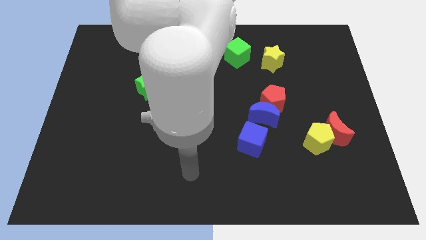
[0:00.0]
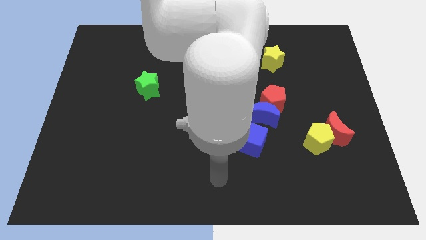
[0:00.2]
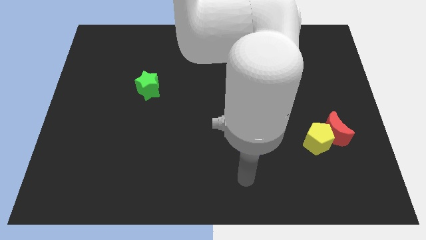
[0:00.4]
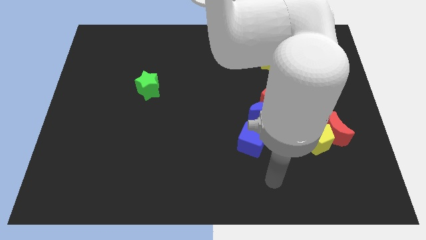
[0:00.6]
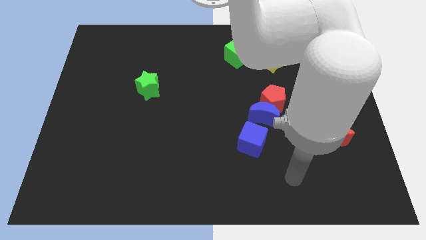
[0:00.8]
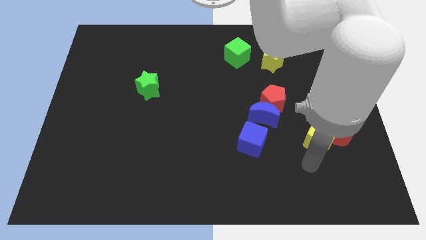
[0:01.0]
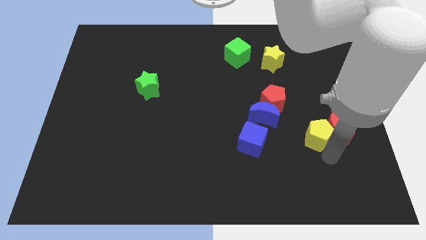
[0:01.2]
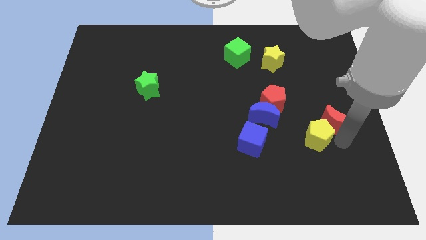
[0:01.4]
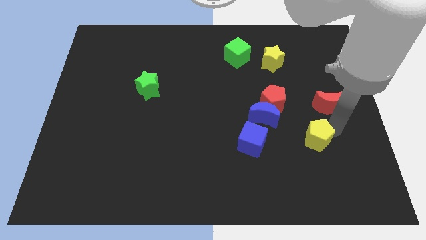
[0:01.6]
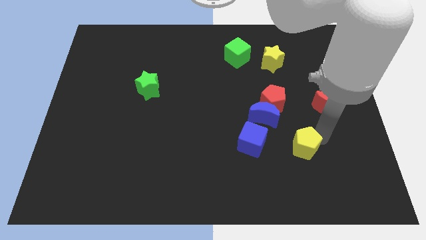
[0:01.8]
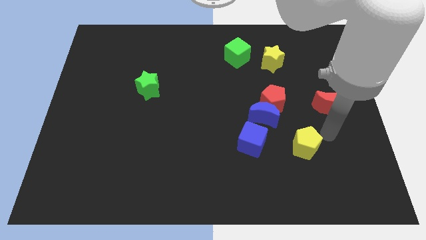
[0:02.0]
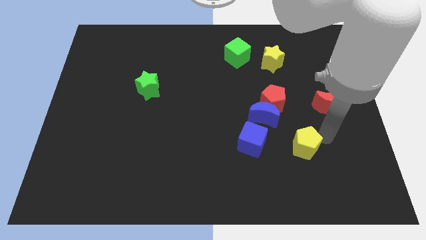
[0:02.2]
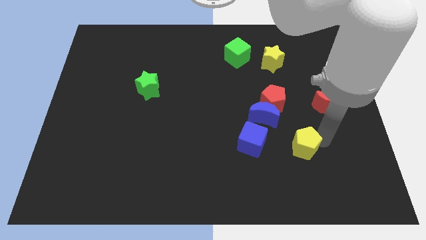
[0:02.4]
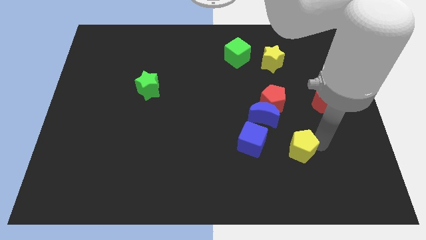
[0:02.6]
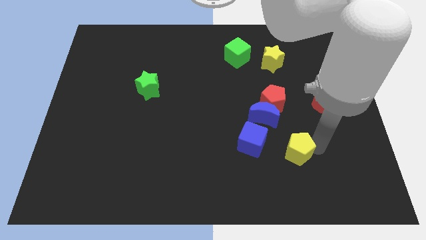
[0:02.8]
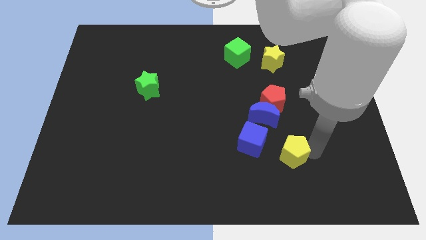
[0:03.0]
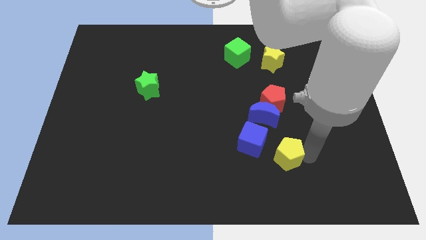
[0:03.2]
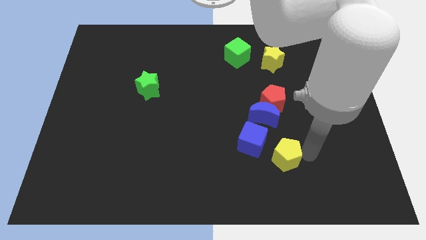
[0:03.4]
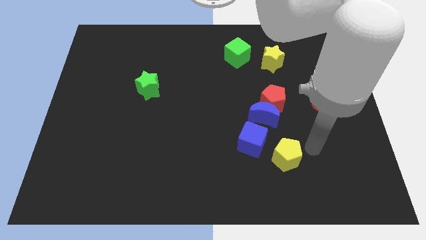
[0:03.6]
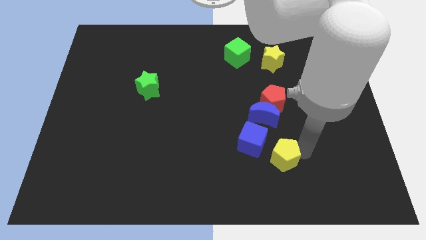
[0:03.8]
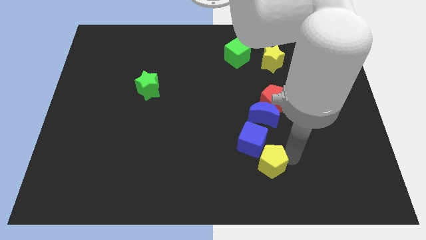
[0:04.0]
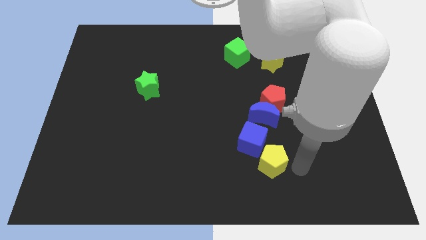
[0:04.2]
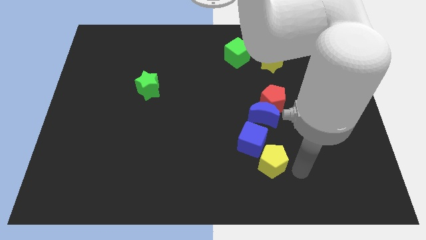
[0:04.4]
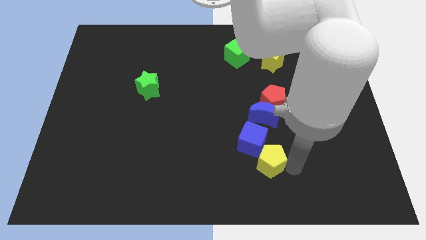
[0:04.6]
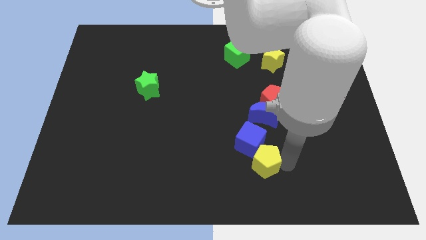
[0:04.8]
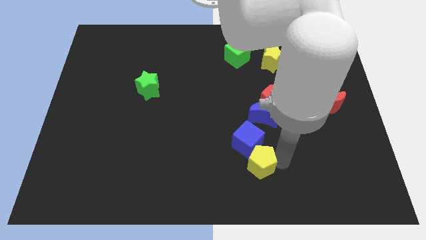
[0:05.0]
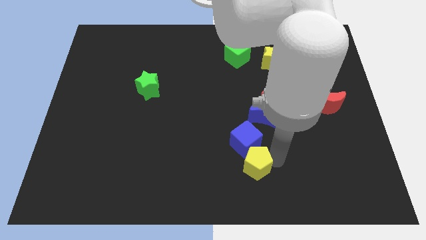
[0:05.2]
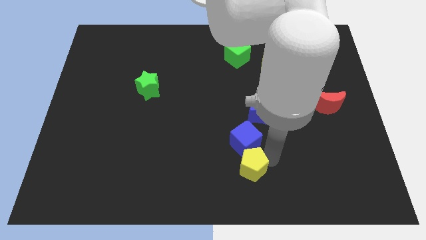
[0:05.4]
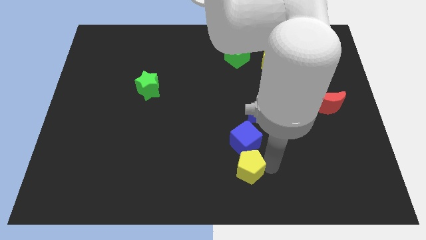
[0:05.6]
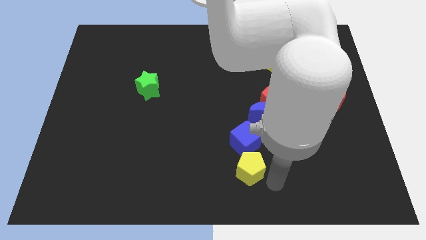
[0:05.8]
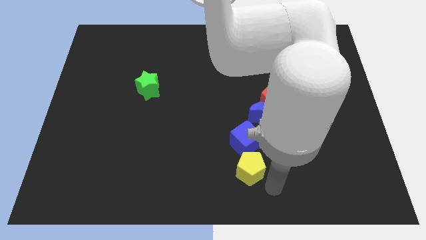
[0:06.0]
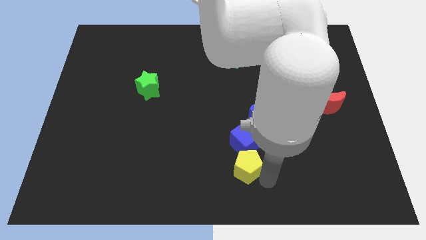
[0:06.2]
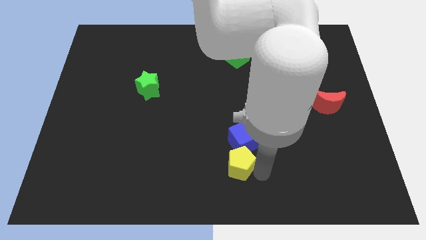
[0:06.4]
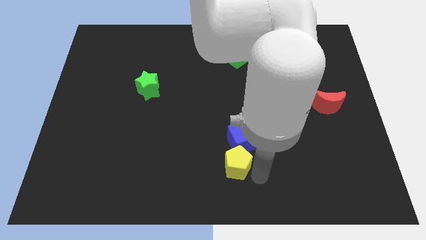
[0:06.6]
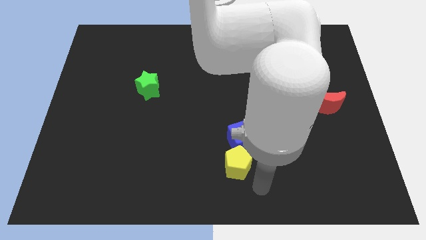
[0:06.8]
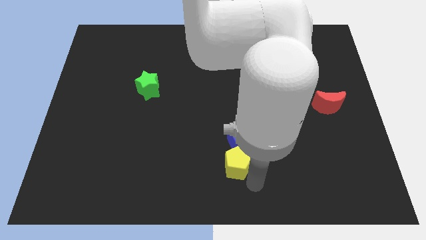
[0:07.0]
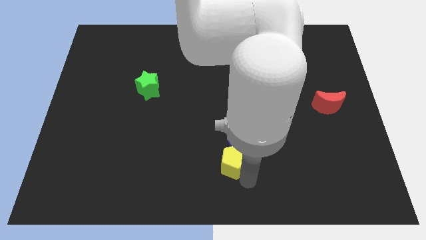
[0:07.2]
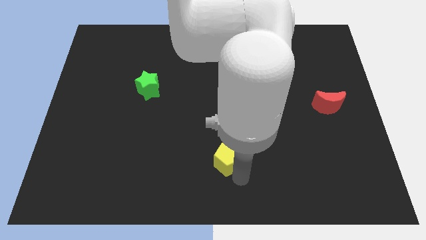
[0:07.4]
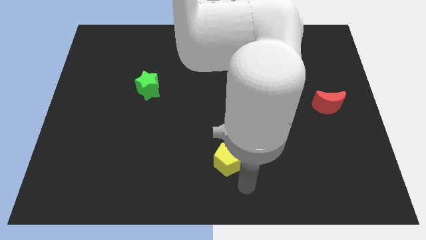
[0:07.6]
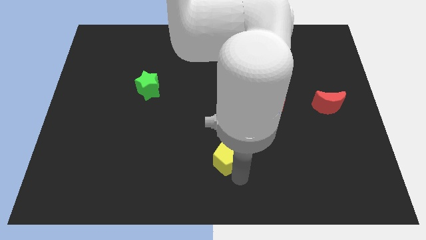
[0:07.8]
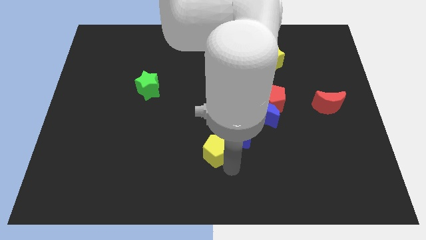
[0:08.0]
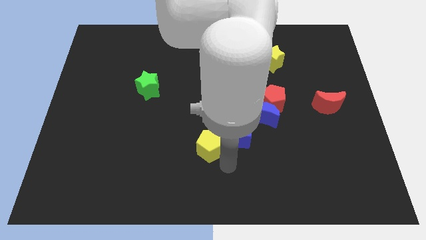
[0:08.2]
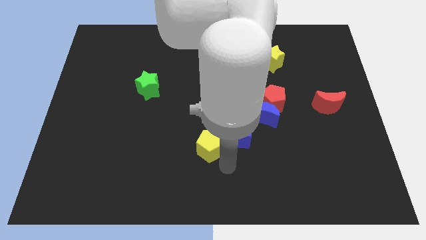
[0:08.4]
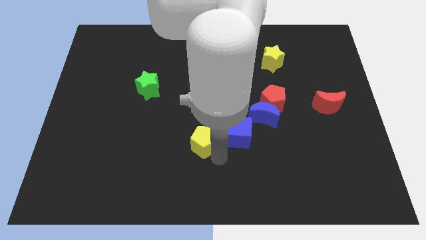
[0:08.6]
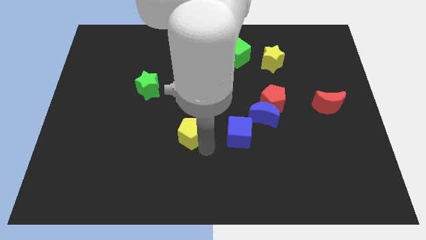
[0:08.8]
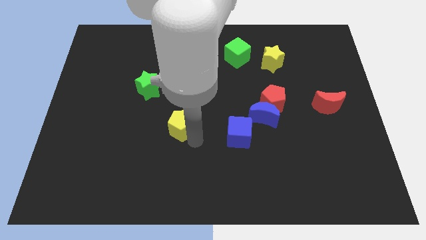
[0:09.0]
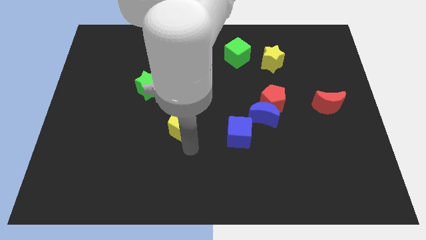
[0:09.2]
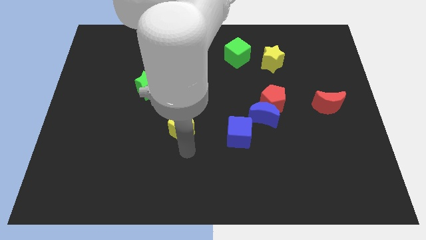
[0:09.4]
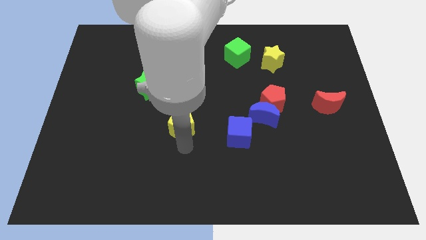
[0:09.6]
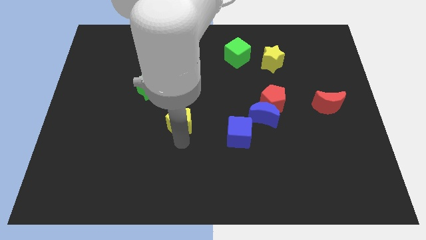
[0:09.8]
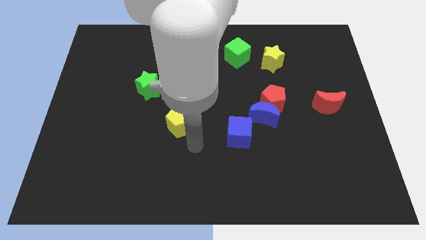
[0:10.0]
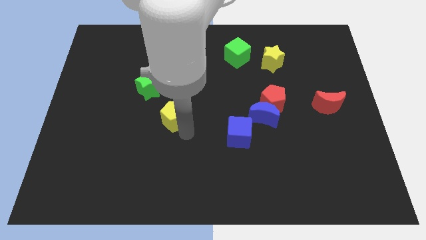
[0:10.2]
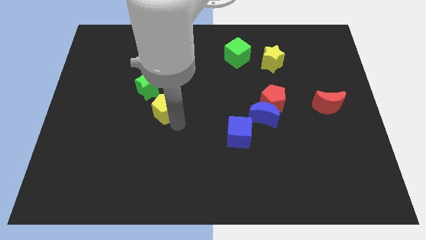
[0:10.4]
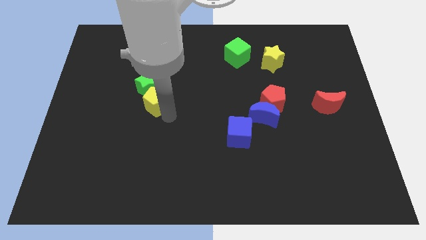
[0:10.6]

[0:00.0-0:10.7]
slide the yellow pentagon to the green star

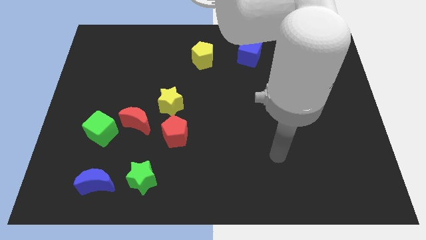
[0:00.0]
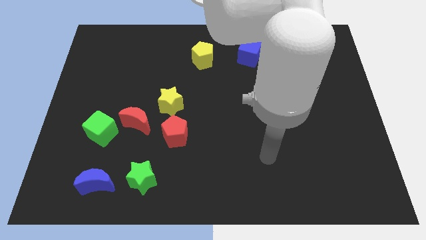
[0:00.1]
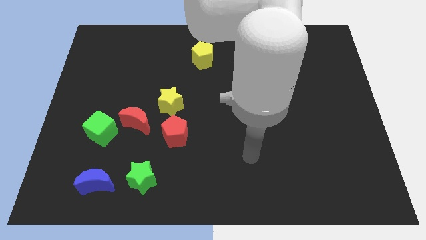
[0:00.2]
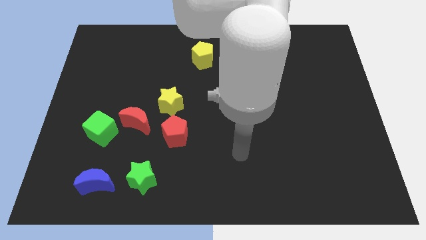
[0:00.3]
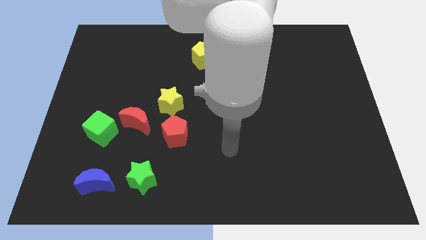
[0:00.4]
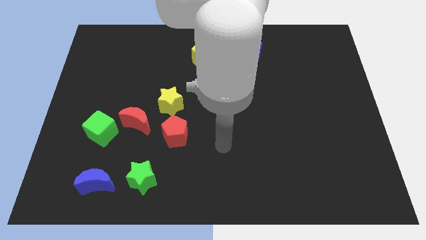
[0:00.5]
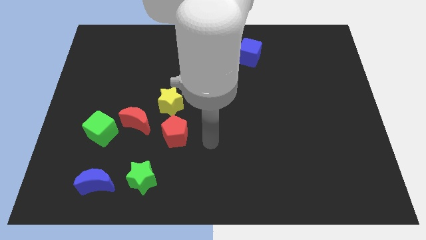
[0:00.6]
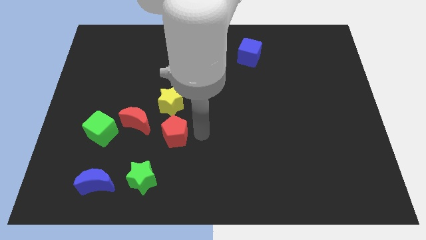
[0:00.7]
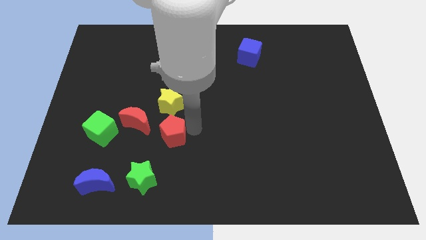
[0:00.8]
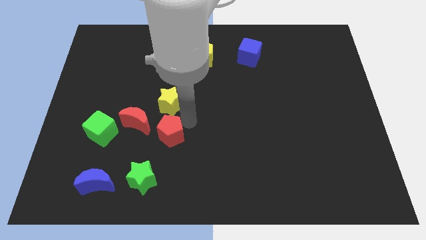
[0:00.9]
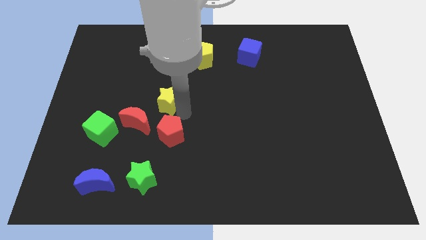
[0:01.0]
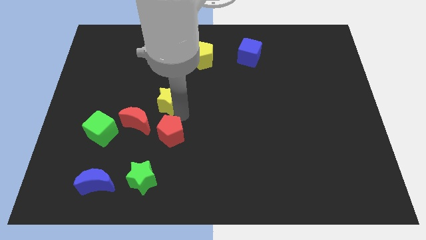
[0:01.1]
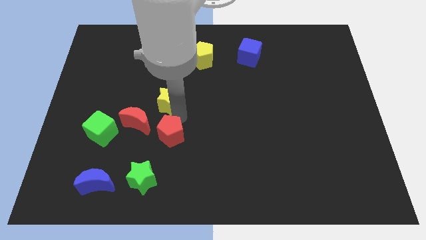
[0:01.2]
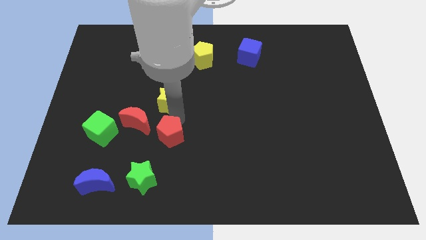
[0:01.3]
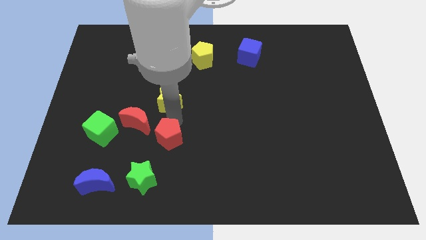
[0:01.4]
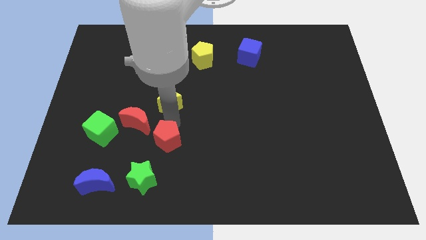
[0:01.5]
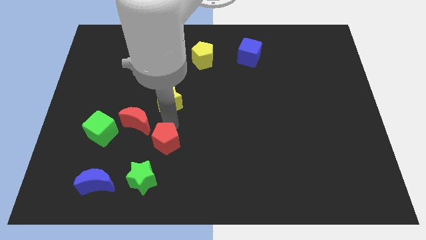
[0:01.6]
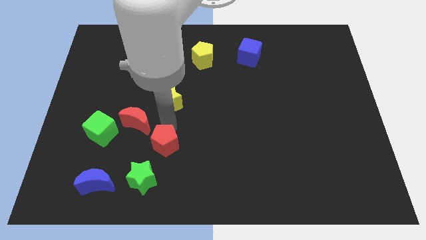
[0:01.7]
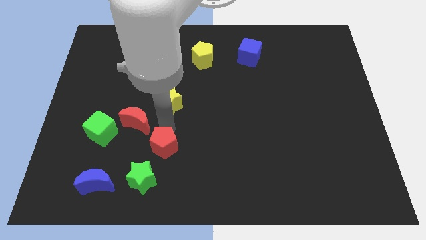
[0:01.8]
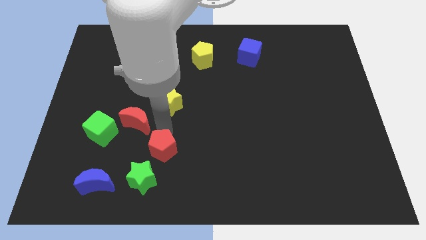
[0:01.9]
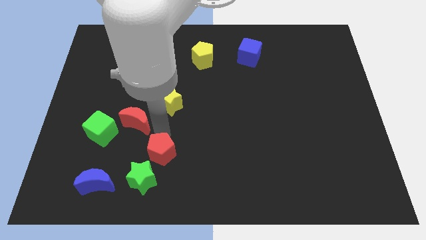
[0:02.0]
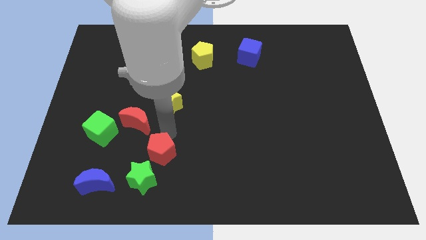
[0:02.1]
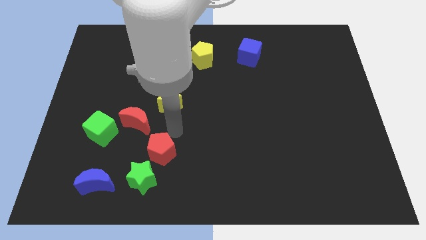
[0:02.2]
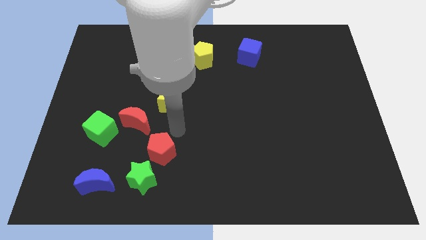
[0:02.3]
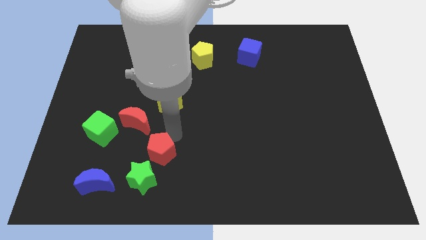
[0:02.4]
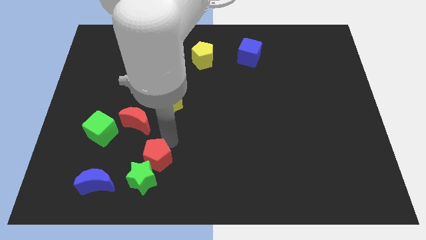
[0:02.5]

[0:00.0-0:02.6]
move the red pentagon towards the green star
